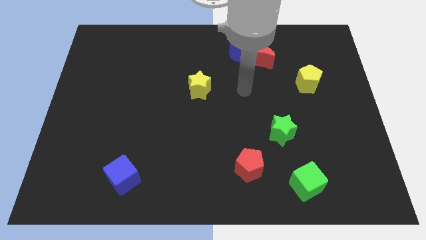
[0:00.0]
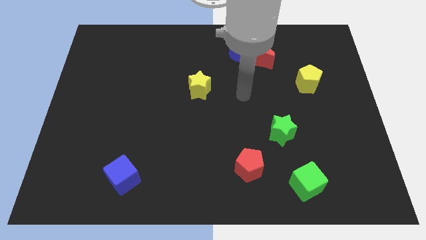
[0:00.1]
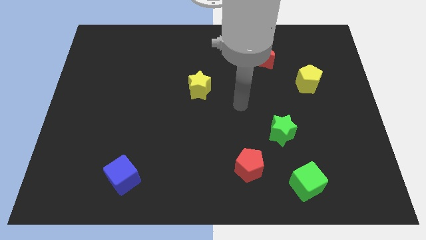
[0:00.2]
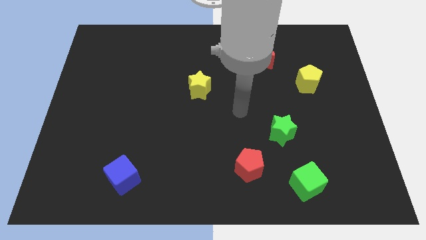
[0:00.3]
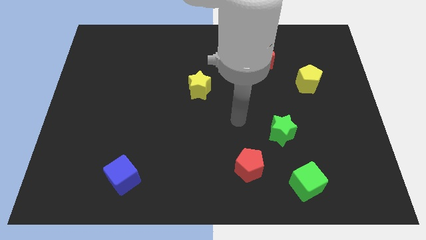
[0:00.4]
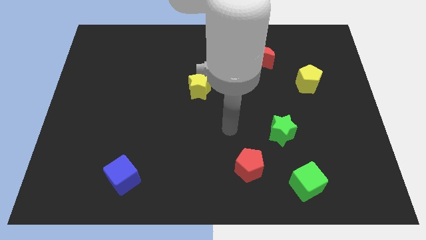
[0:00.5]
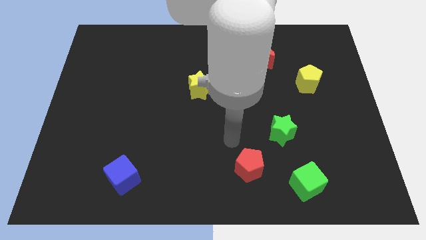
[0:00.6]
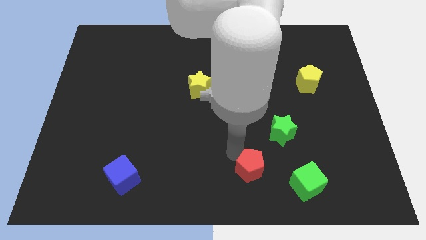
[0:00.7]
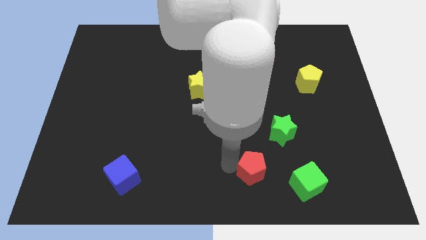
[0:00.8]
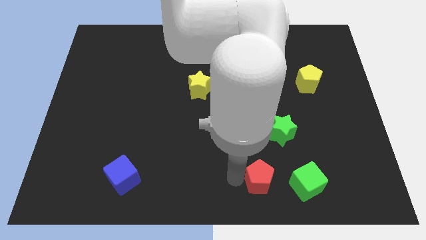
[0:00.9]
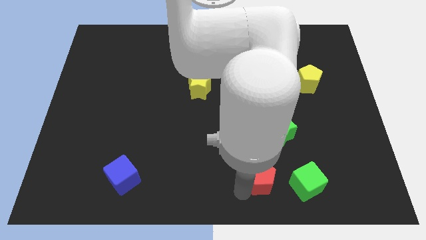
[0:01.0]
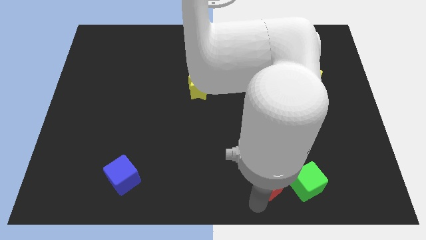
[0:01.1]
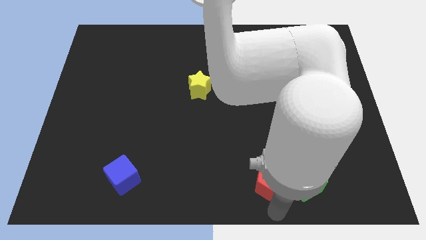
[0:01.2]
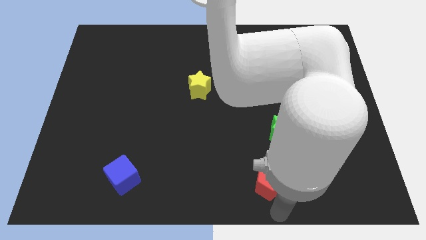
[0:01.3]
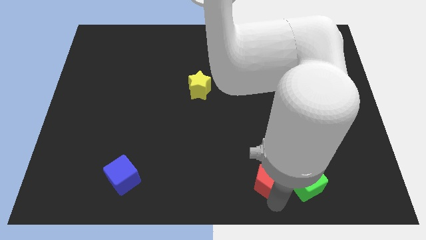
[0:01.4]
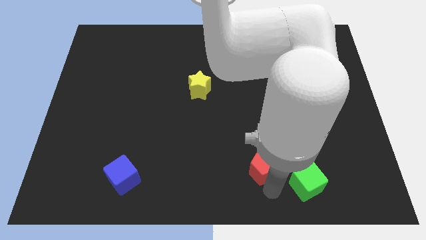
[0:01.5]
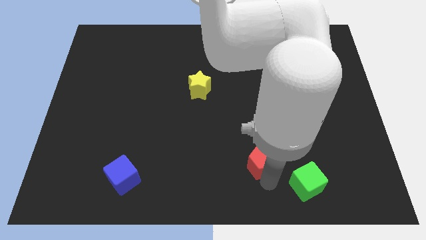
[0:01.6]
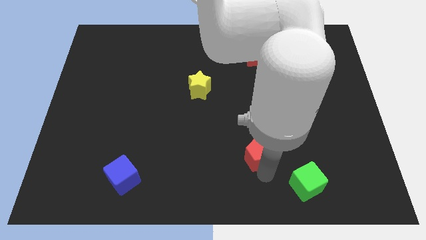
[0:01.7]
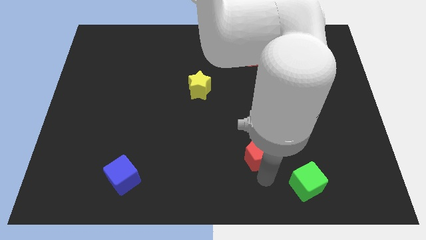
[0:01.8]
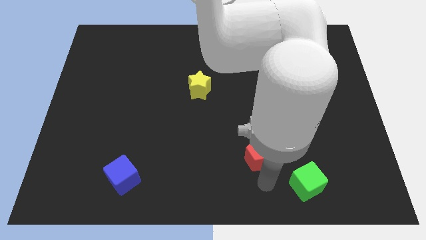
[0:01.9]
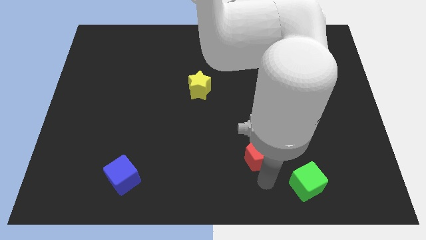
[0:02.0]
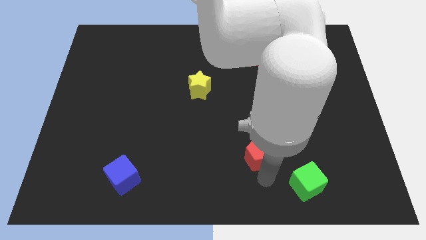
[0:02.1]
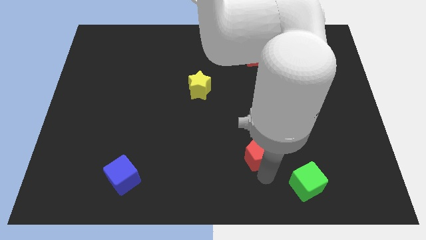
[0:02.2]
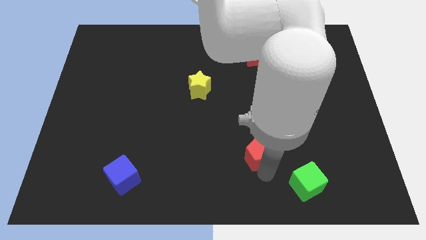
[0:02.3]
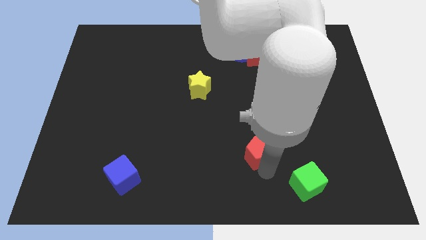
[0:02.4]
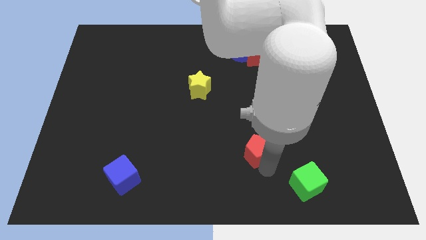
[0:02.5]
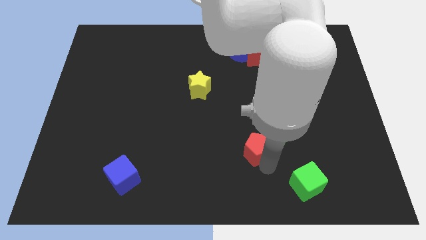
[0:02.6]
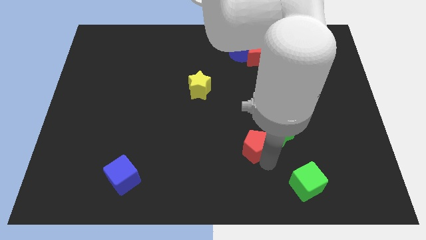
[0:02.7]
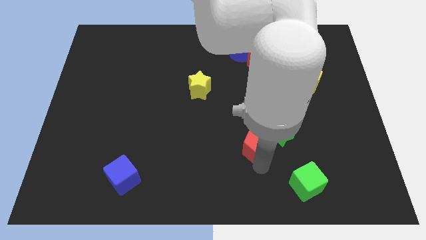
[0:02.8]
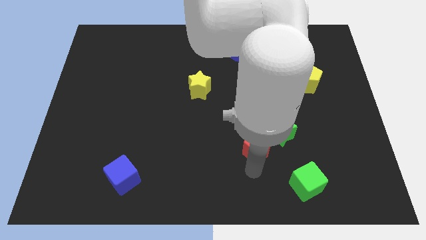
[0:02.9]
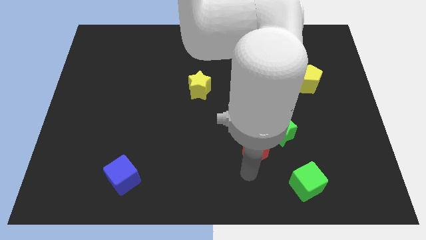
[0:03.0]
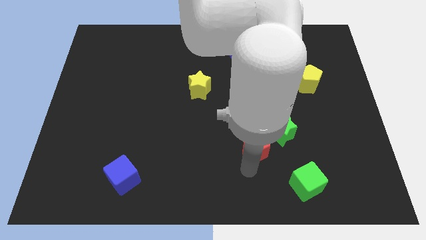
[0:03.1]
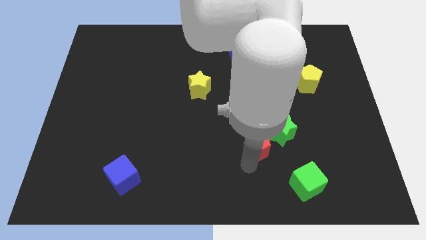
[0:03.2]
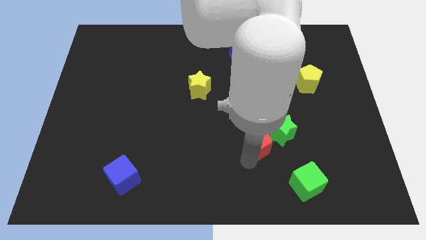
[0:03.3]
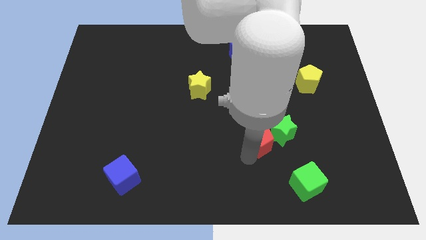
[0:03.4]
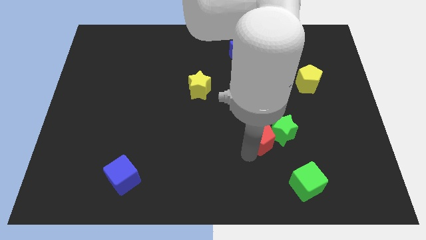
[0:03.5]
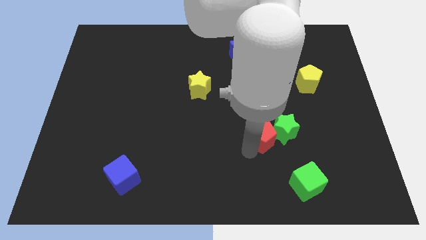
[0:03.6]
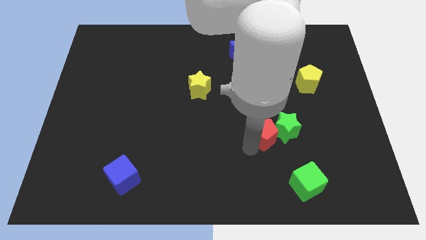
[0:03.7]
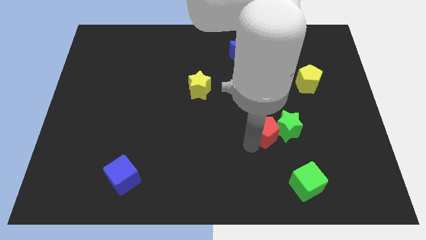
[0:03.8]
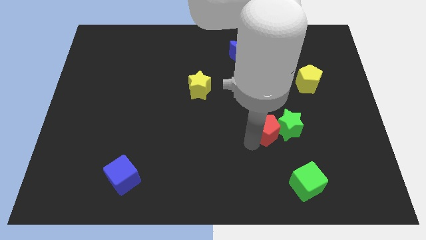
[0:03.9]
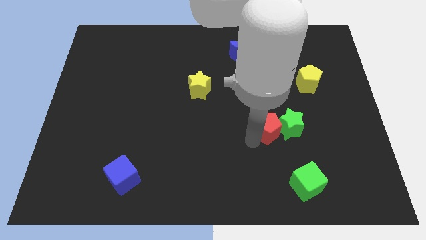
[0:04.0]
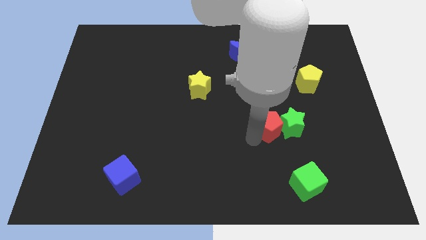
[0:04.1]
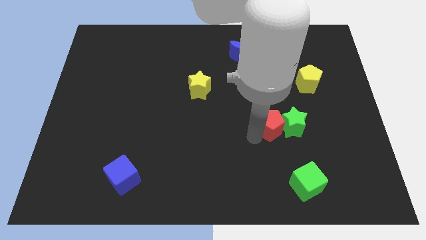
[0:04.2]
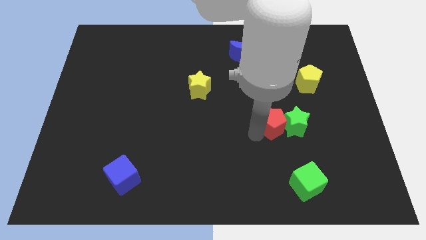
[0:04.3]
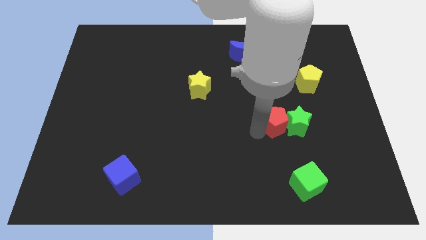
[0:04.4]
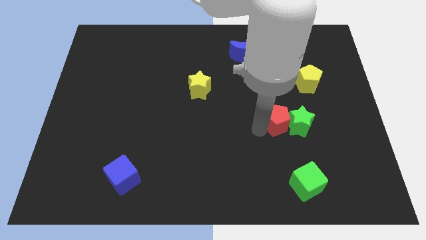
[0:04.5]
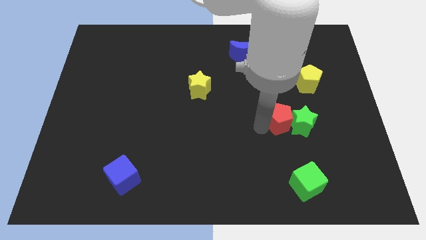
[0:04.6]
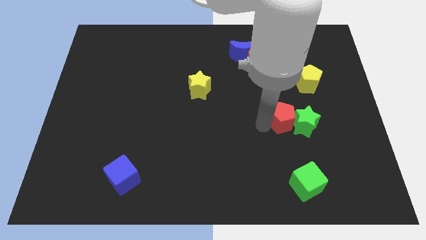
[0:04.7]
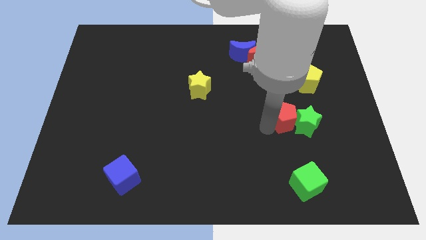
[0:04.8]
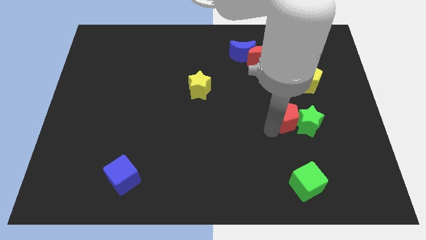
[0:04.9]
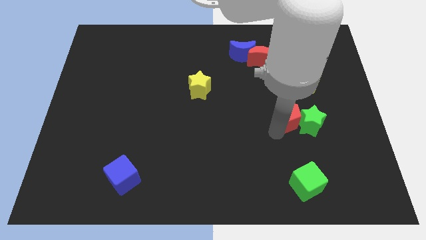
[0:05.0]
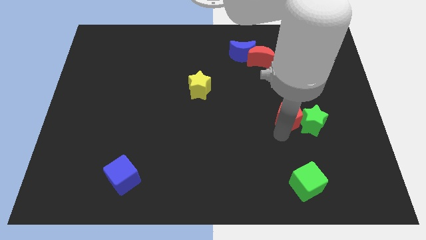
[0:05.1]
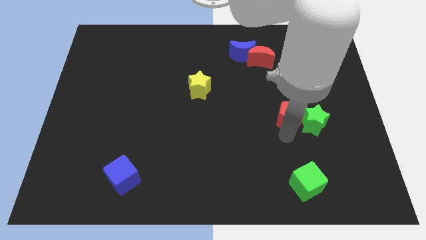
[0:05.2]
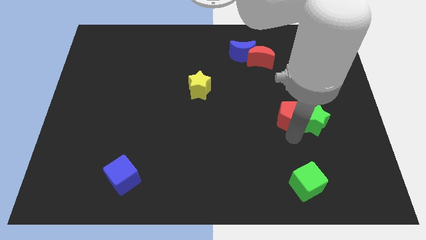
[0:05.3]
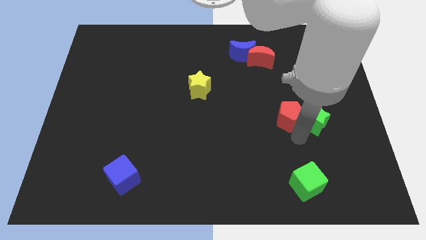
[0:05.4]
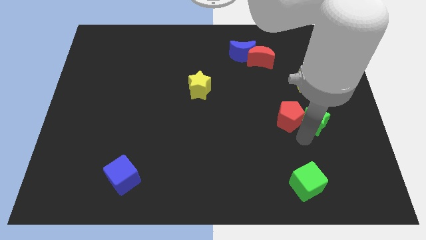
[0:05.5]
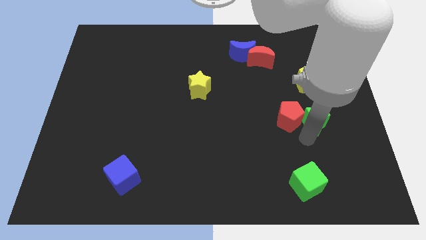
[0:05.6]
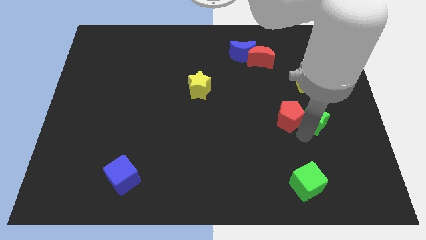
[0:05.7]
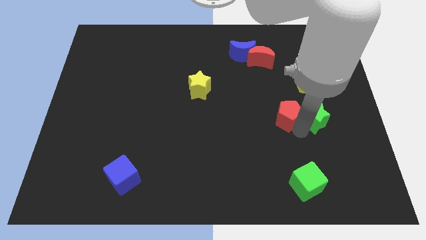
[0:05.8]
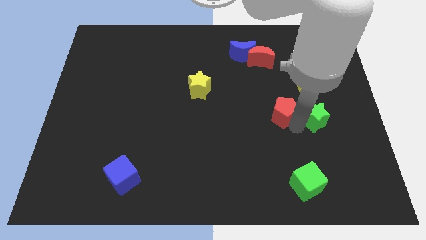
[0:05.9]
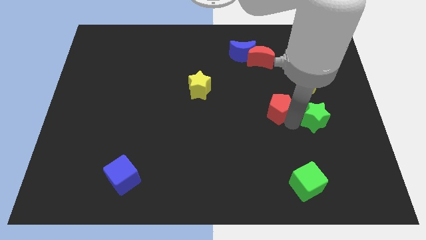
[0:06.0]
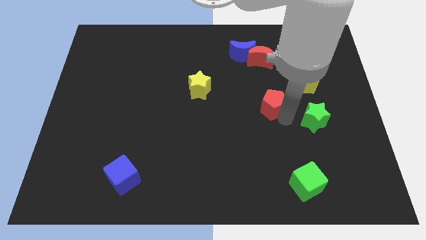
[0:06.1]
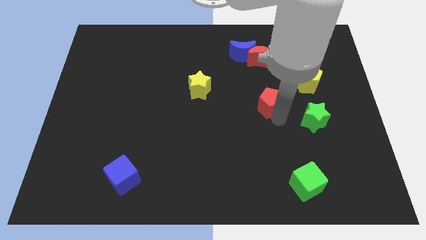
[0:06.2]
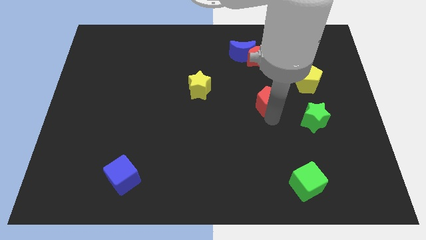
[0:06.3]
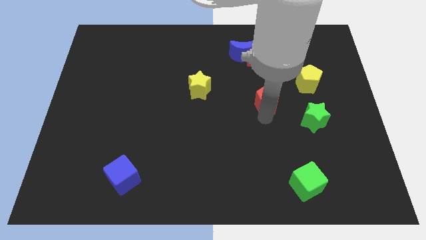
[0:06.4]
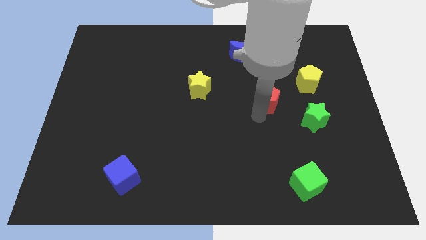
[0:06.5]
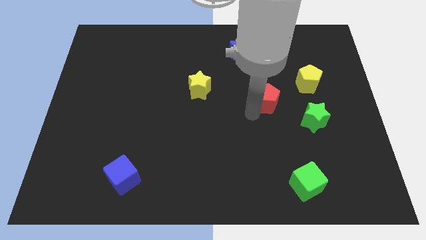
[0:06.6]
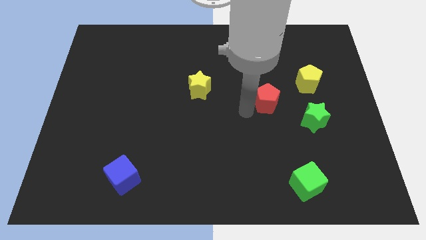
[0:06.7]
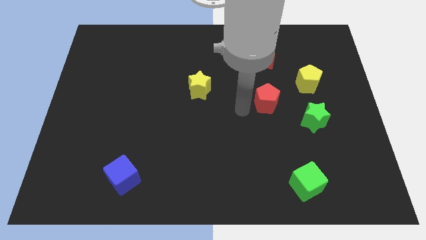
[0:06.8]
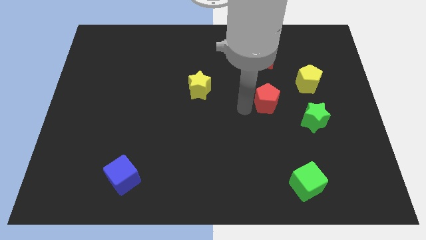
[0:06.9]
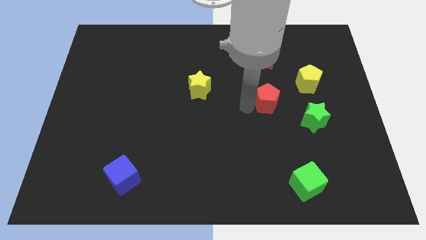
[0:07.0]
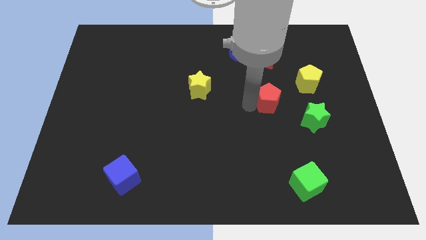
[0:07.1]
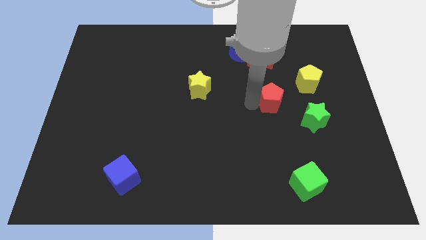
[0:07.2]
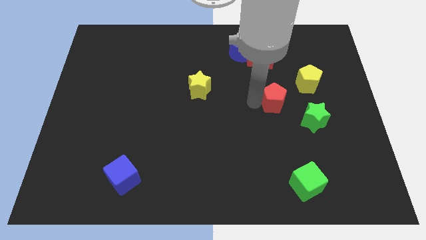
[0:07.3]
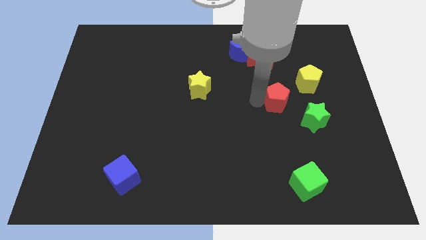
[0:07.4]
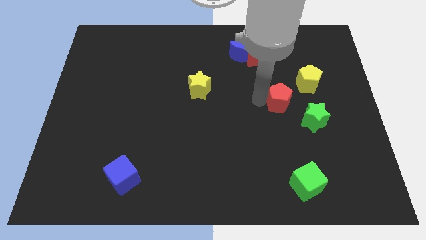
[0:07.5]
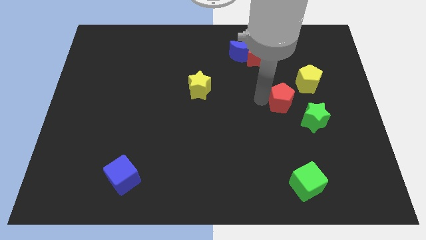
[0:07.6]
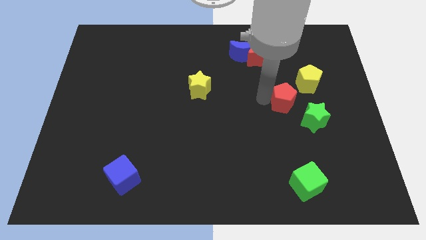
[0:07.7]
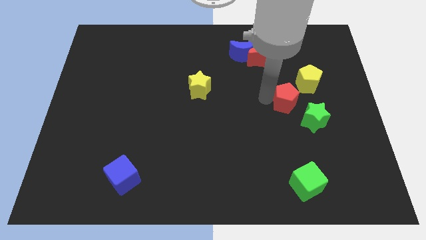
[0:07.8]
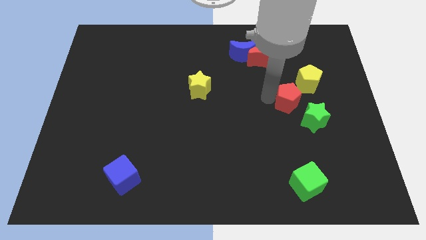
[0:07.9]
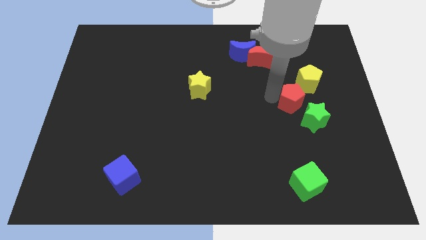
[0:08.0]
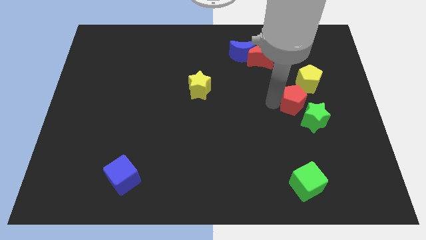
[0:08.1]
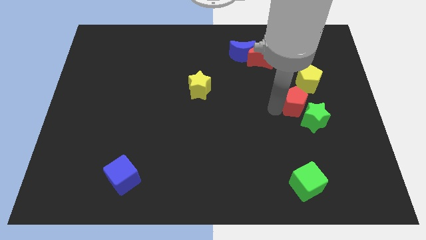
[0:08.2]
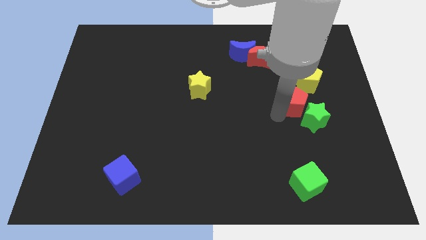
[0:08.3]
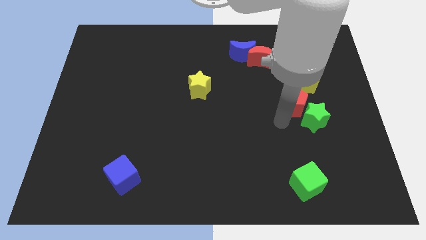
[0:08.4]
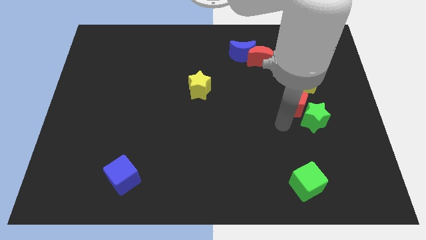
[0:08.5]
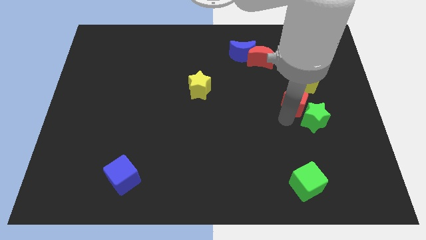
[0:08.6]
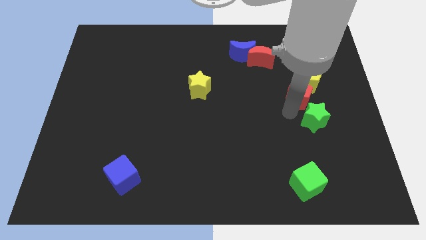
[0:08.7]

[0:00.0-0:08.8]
move the red pentagon close to the yellow pentagon
